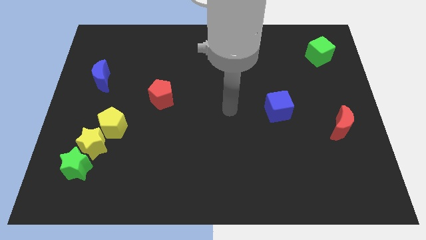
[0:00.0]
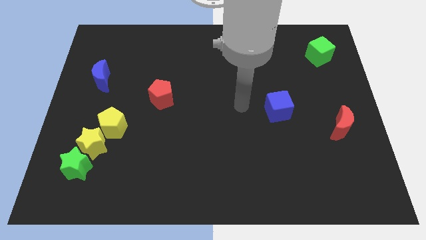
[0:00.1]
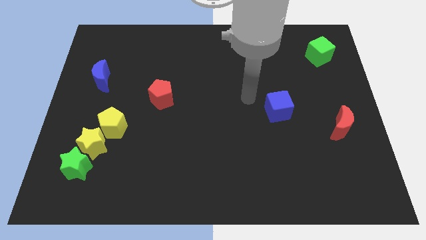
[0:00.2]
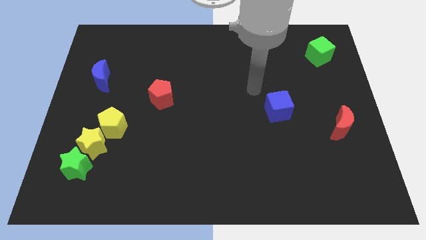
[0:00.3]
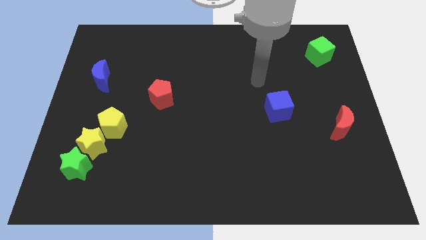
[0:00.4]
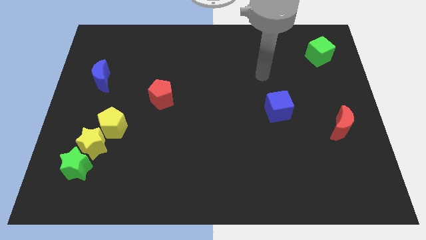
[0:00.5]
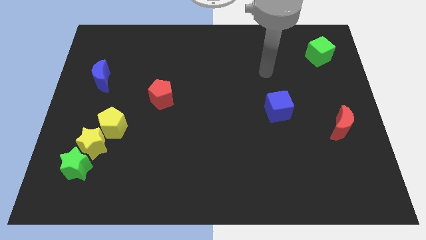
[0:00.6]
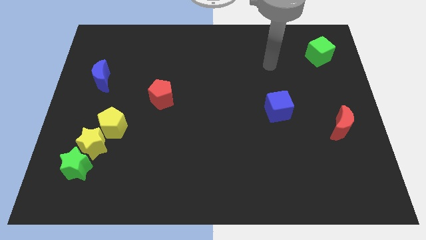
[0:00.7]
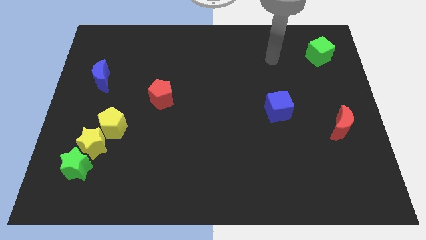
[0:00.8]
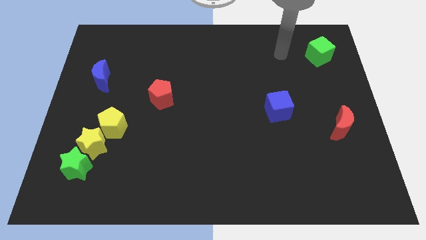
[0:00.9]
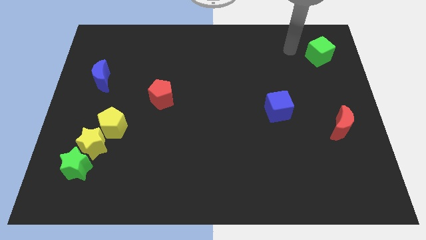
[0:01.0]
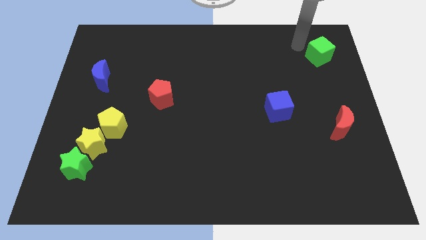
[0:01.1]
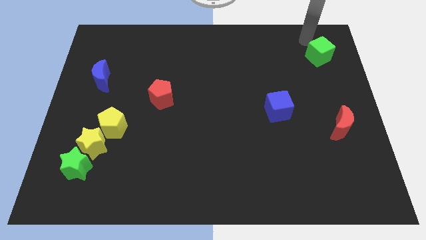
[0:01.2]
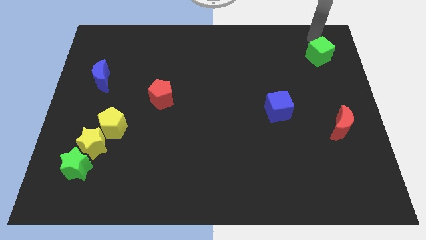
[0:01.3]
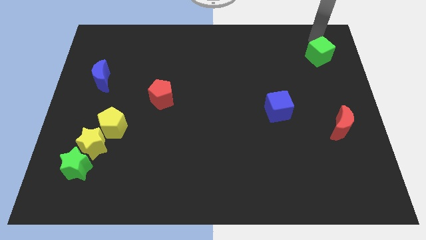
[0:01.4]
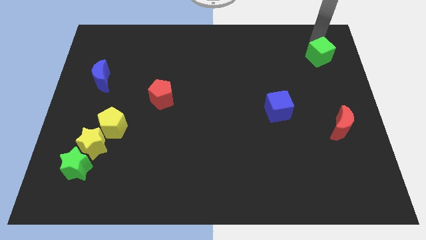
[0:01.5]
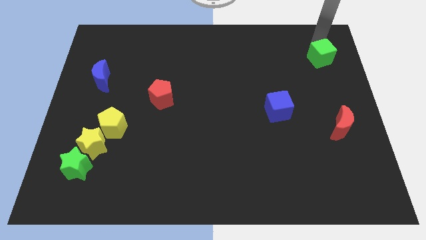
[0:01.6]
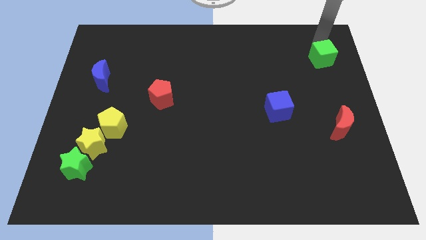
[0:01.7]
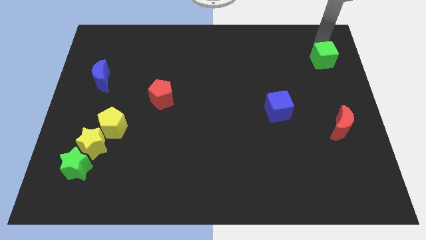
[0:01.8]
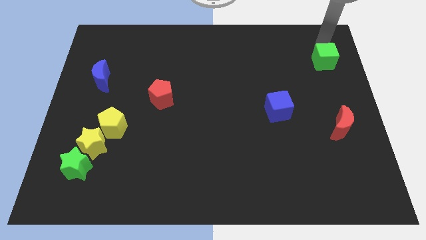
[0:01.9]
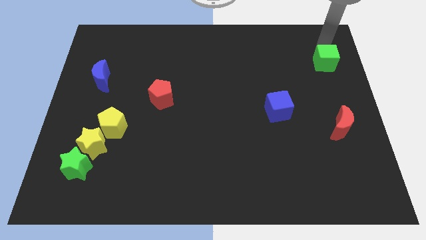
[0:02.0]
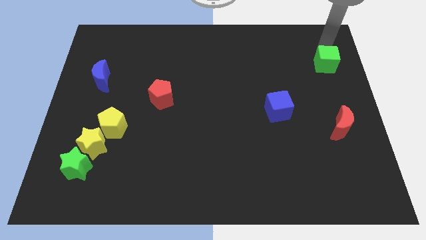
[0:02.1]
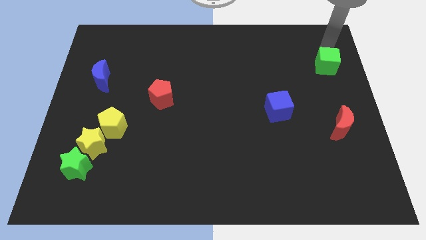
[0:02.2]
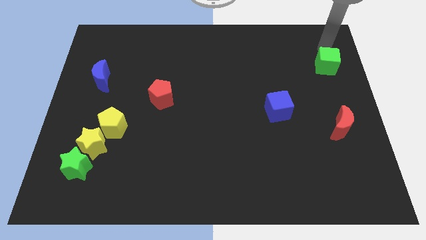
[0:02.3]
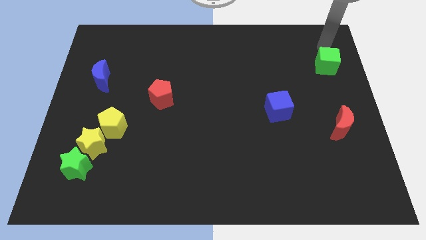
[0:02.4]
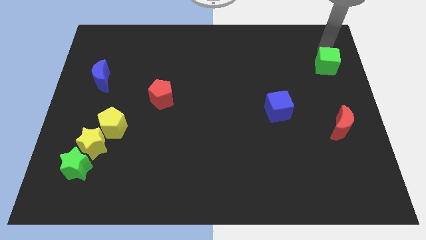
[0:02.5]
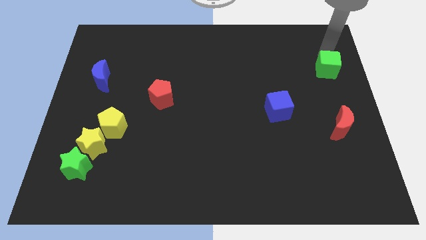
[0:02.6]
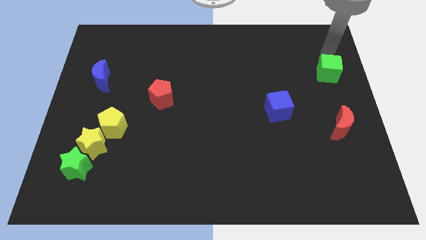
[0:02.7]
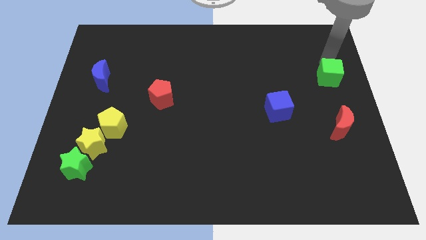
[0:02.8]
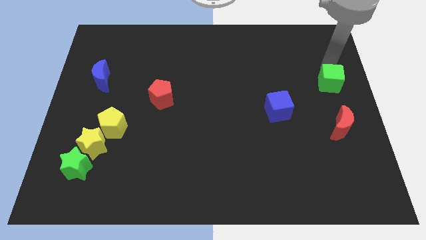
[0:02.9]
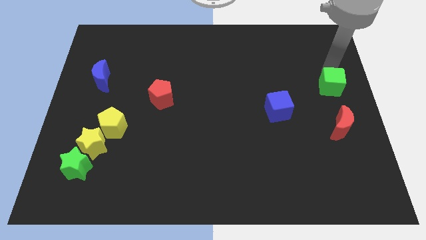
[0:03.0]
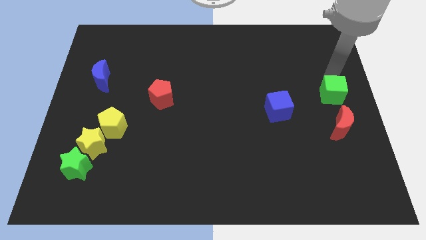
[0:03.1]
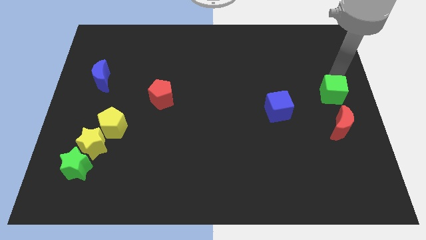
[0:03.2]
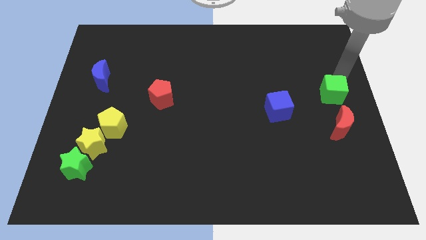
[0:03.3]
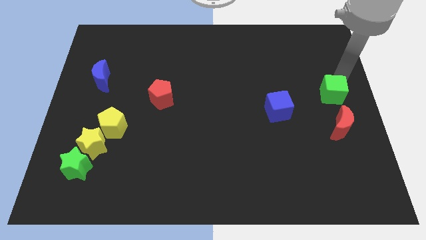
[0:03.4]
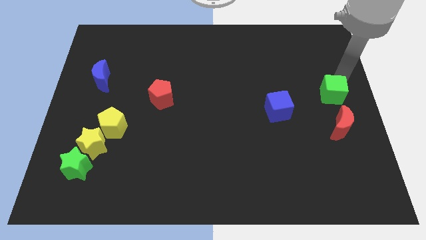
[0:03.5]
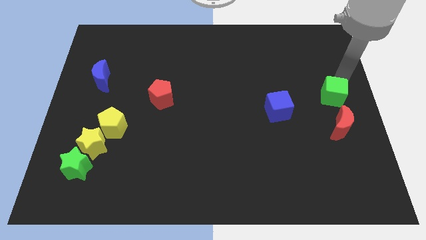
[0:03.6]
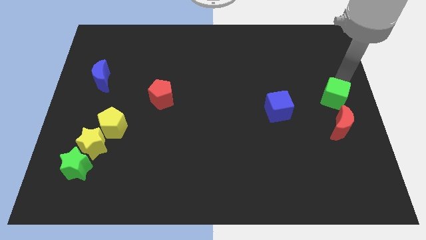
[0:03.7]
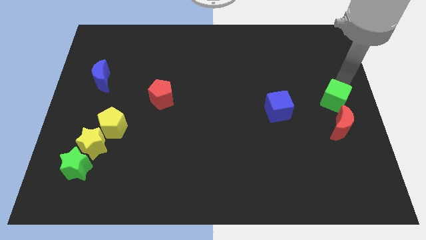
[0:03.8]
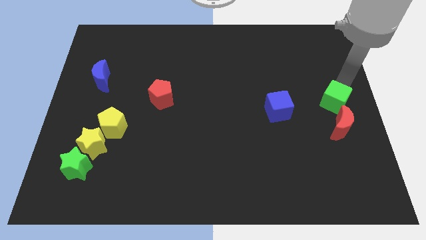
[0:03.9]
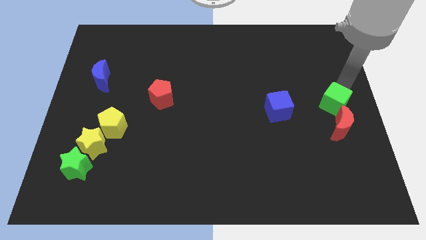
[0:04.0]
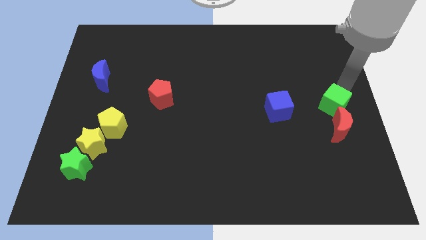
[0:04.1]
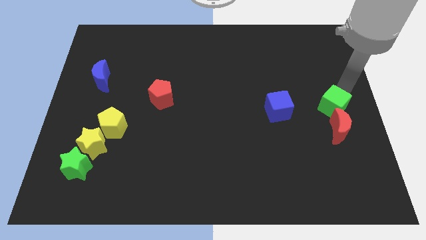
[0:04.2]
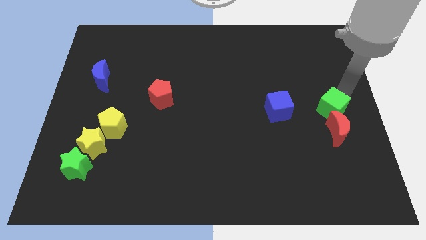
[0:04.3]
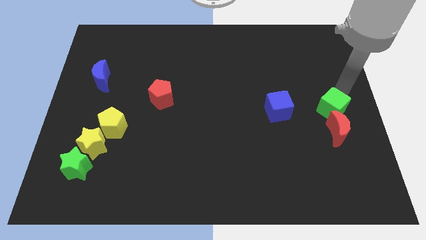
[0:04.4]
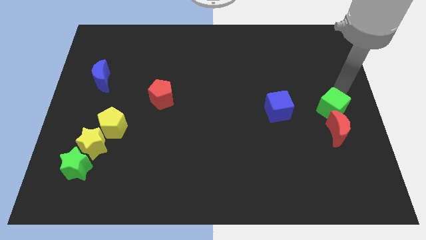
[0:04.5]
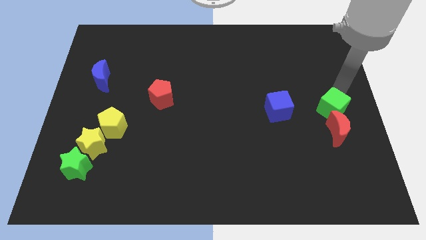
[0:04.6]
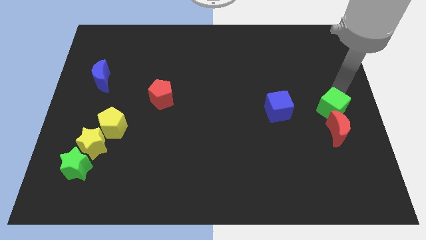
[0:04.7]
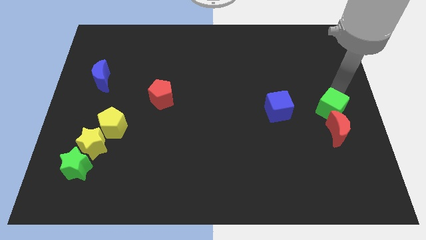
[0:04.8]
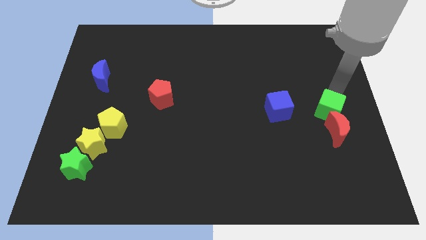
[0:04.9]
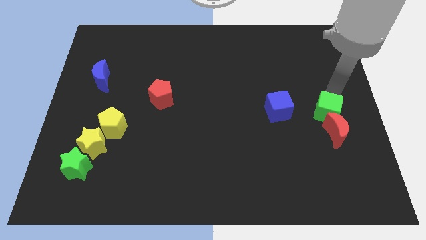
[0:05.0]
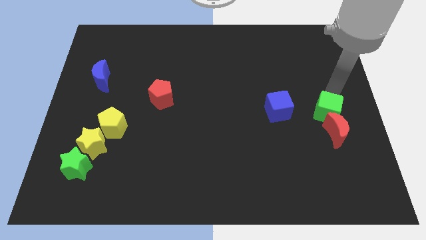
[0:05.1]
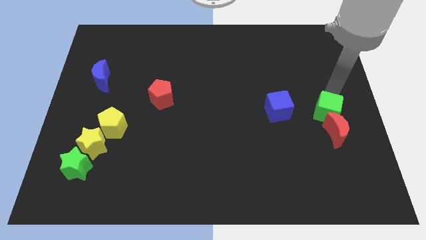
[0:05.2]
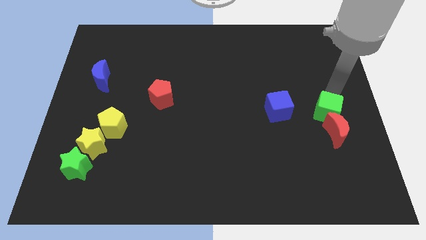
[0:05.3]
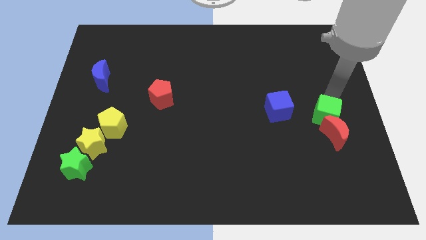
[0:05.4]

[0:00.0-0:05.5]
slide the green cube downwards

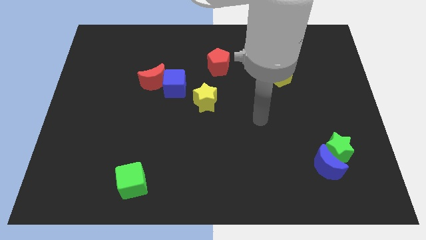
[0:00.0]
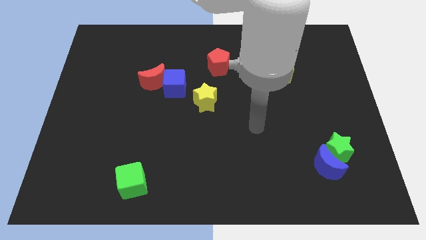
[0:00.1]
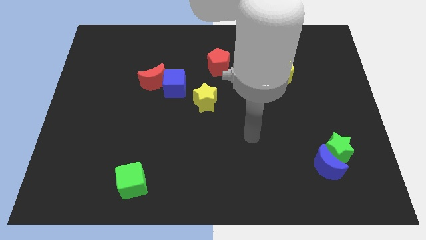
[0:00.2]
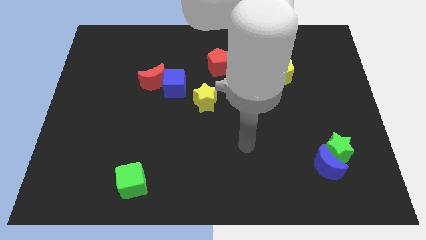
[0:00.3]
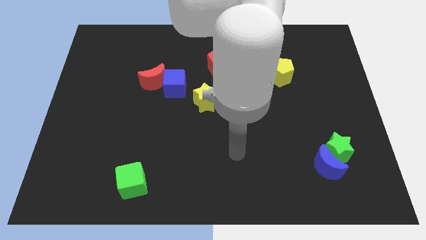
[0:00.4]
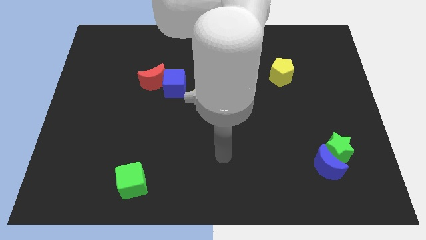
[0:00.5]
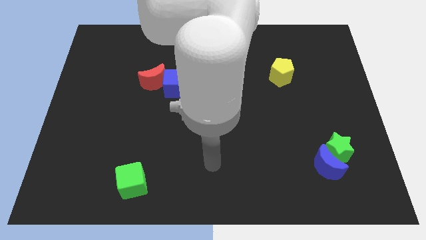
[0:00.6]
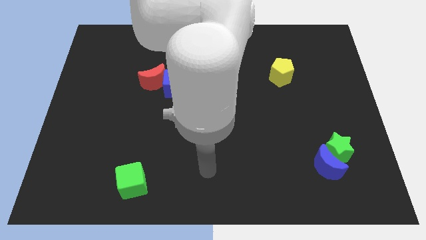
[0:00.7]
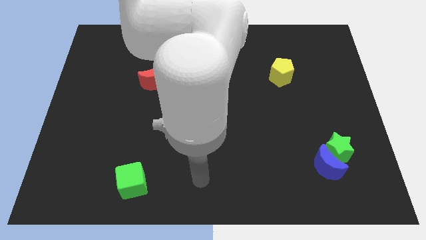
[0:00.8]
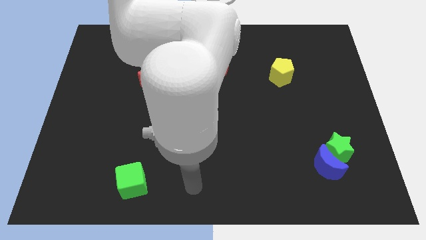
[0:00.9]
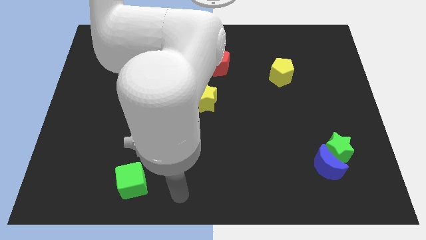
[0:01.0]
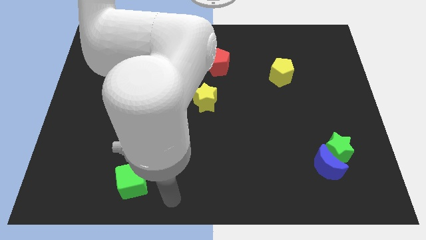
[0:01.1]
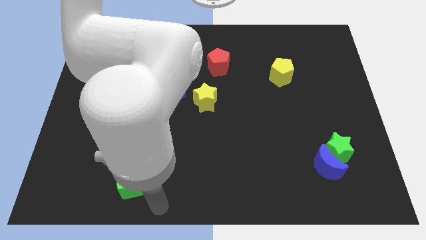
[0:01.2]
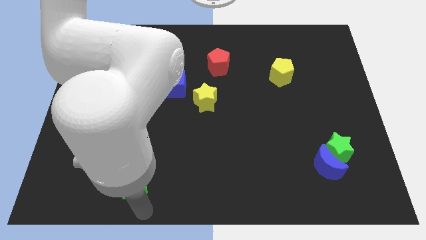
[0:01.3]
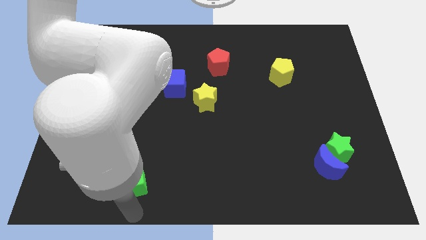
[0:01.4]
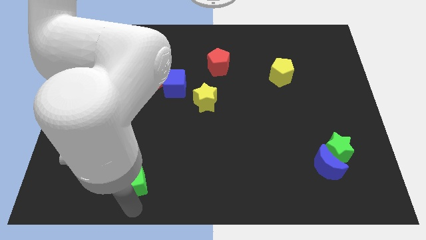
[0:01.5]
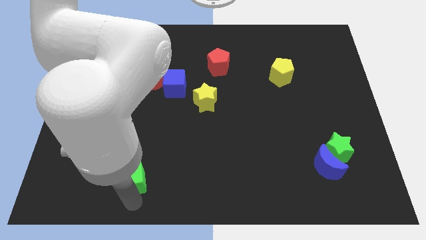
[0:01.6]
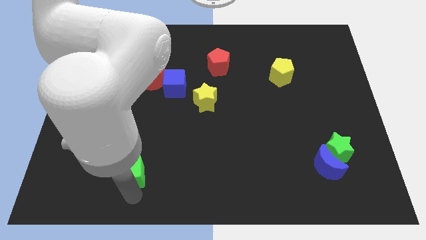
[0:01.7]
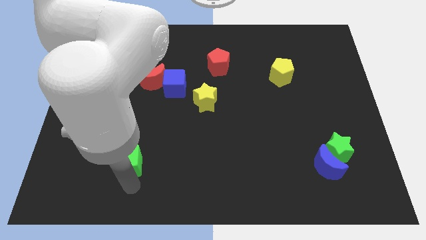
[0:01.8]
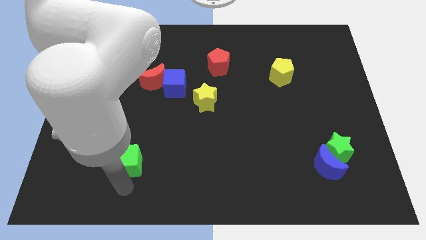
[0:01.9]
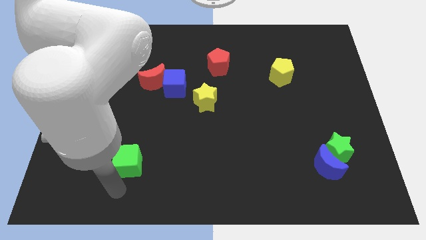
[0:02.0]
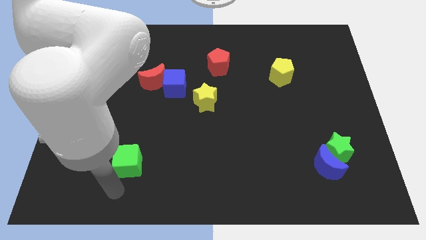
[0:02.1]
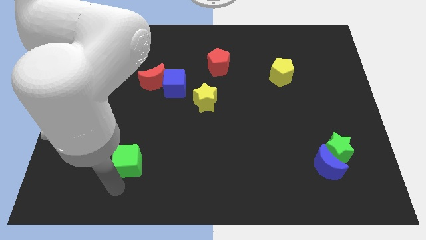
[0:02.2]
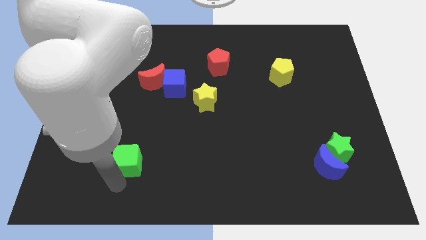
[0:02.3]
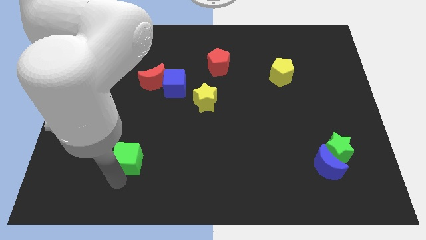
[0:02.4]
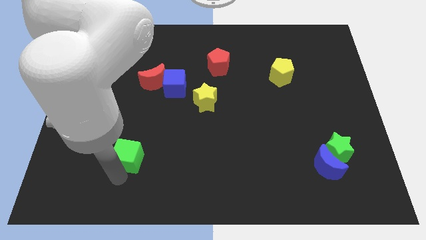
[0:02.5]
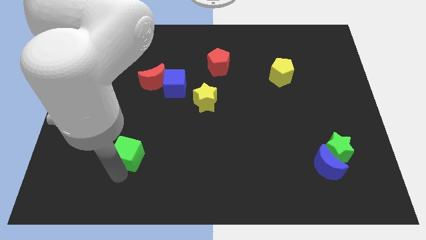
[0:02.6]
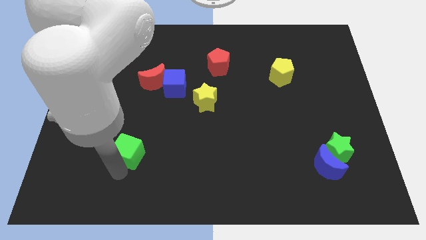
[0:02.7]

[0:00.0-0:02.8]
slide the green cube somewhat upwards
